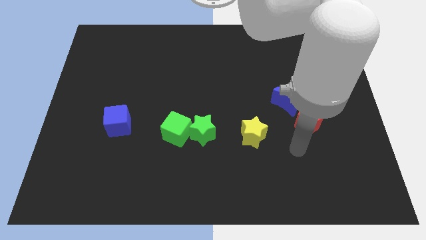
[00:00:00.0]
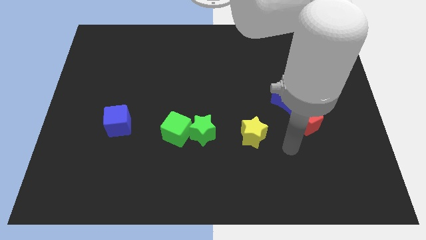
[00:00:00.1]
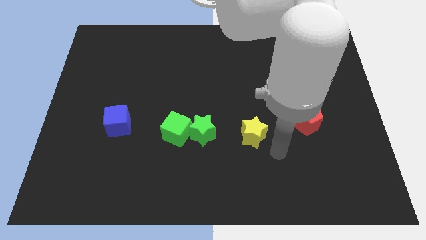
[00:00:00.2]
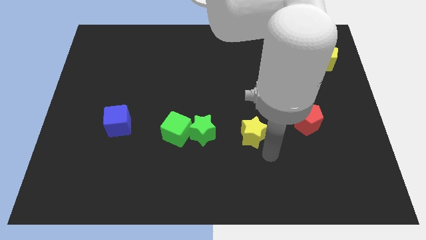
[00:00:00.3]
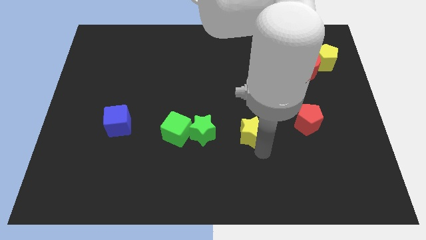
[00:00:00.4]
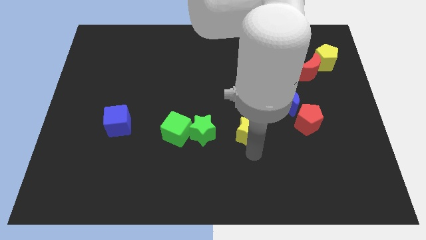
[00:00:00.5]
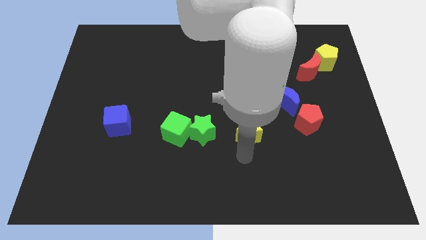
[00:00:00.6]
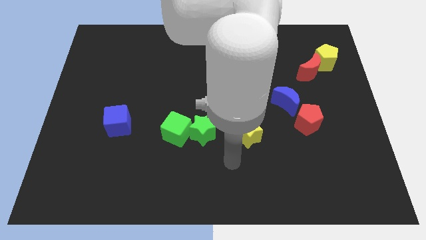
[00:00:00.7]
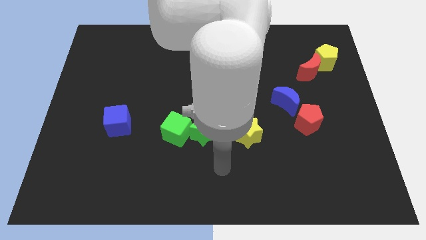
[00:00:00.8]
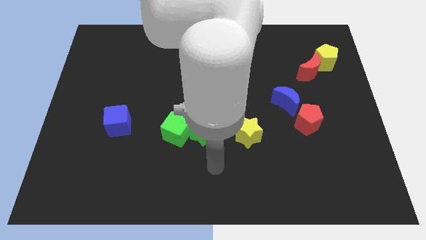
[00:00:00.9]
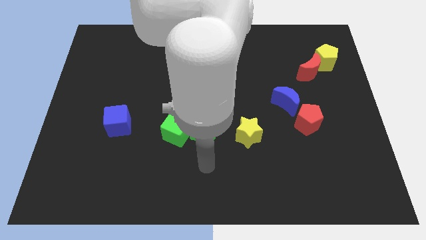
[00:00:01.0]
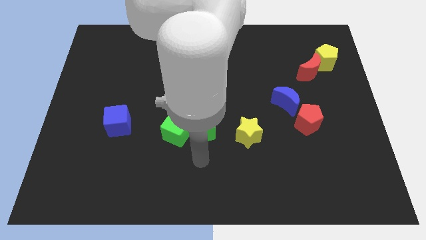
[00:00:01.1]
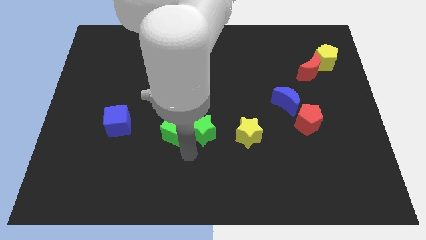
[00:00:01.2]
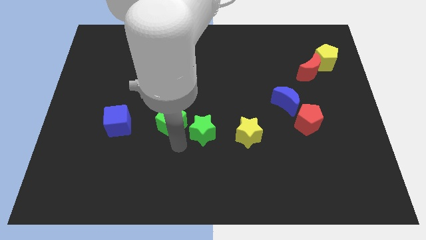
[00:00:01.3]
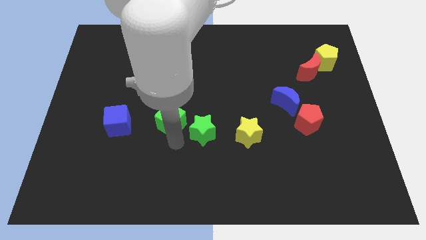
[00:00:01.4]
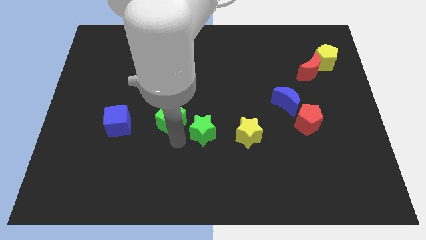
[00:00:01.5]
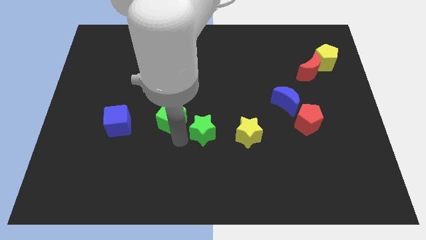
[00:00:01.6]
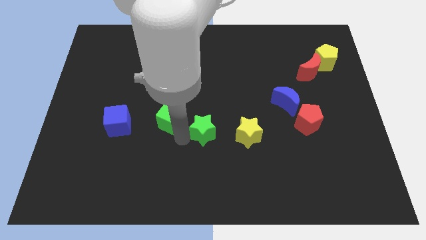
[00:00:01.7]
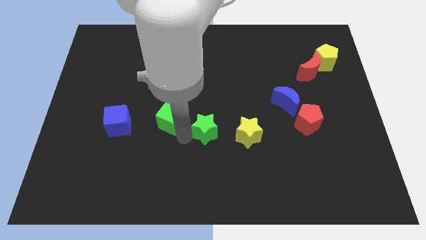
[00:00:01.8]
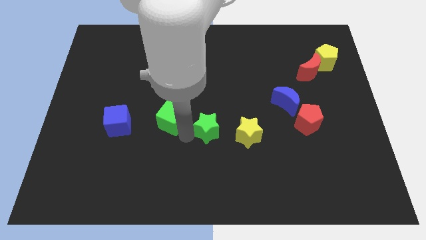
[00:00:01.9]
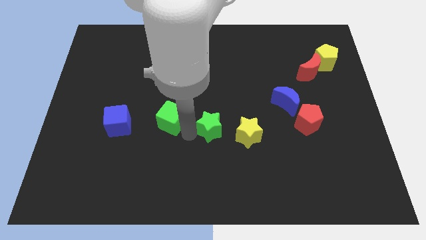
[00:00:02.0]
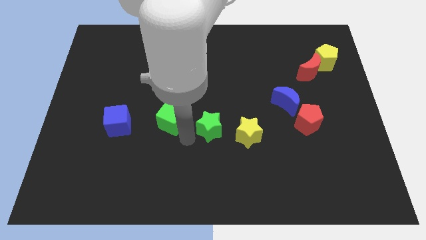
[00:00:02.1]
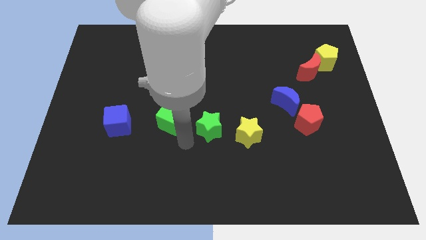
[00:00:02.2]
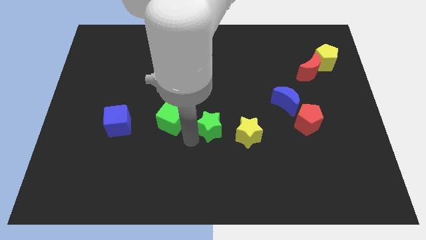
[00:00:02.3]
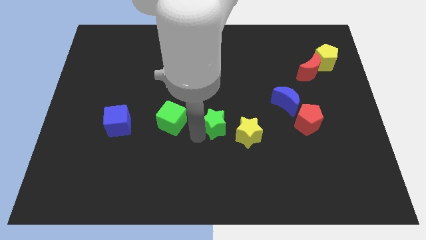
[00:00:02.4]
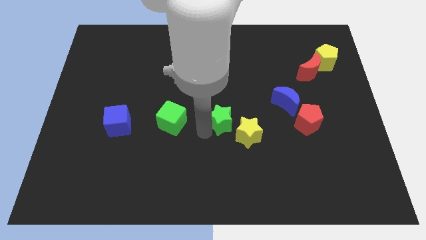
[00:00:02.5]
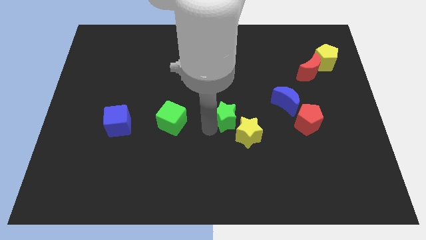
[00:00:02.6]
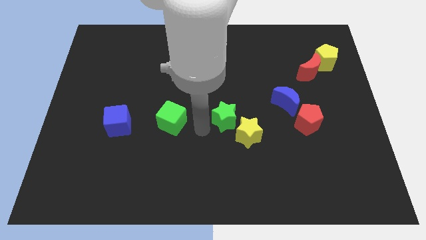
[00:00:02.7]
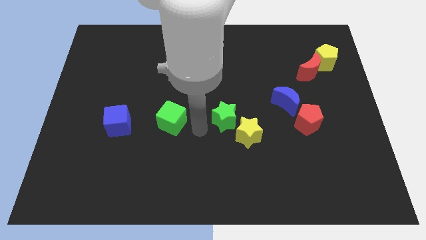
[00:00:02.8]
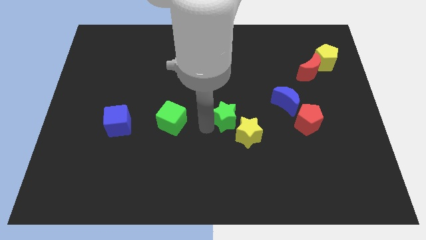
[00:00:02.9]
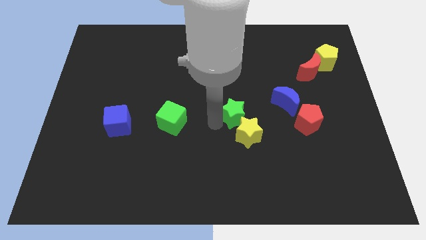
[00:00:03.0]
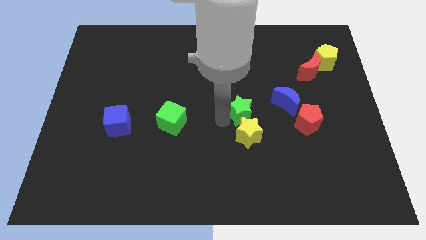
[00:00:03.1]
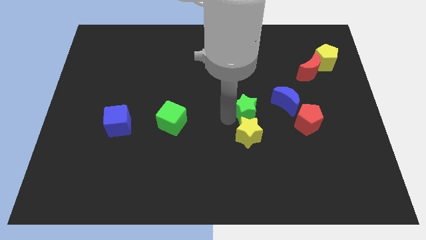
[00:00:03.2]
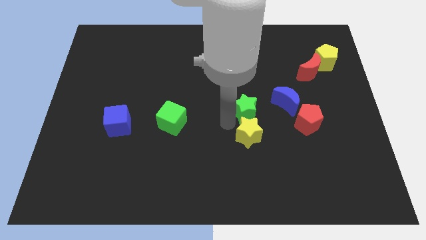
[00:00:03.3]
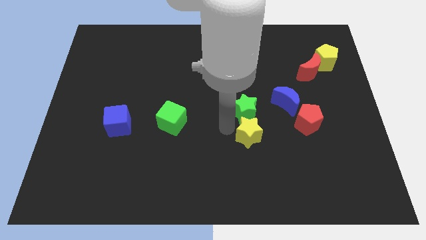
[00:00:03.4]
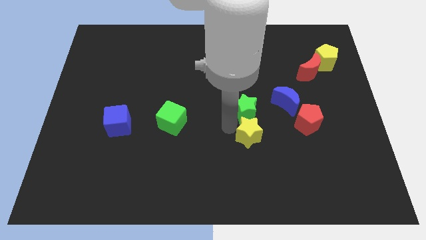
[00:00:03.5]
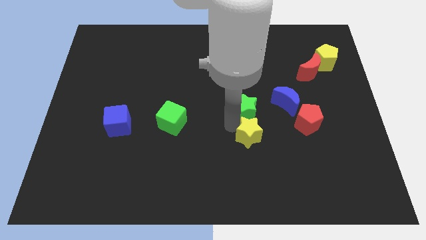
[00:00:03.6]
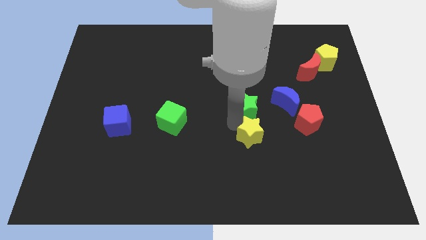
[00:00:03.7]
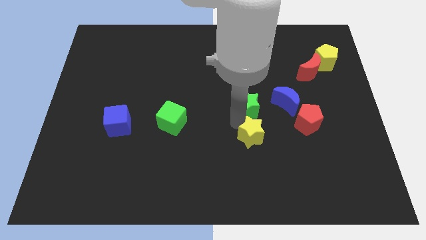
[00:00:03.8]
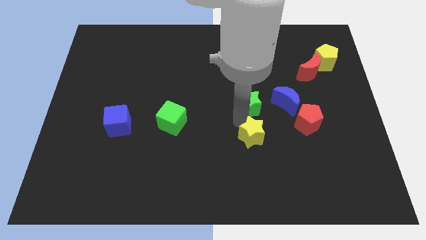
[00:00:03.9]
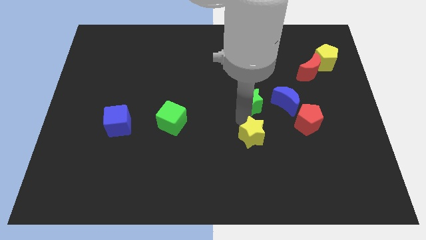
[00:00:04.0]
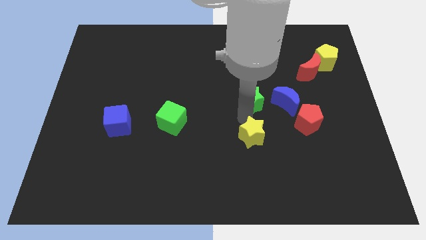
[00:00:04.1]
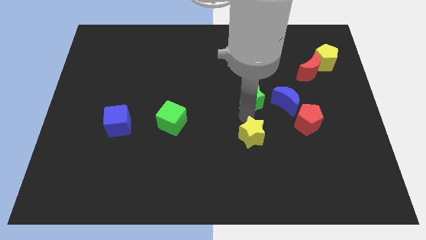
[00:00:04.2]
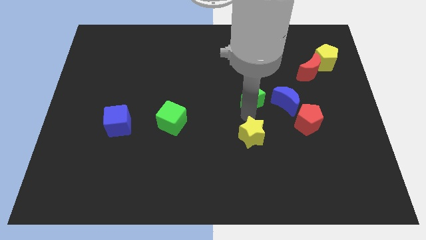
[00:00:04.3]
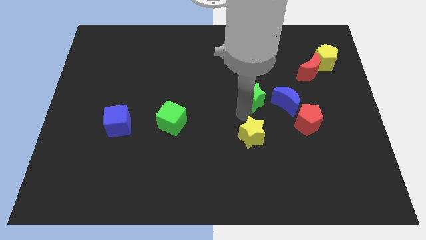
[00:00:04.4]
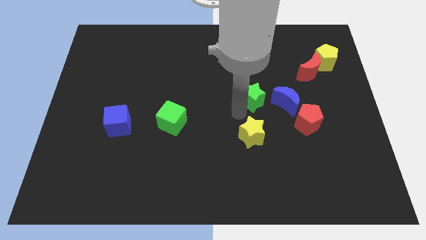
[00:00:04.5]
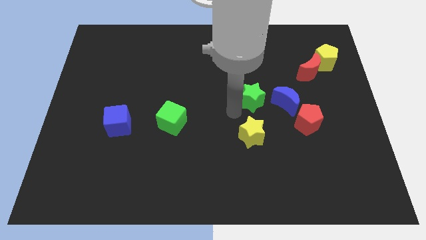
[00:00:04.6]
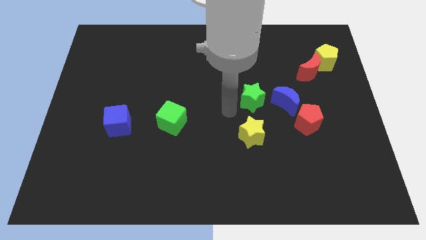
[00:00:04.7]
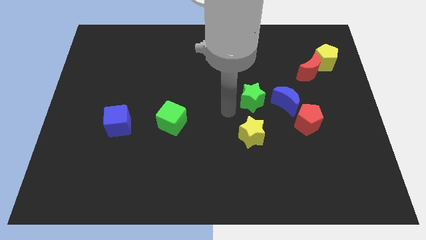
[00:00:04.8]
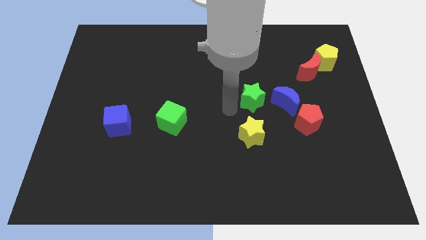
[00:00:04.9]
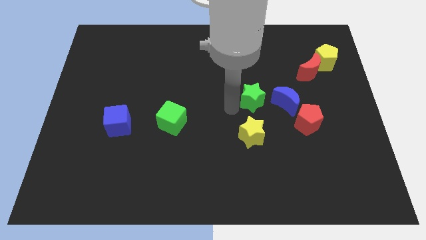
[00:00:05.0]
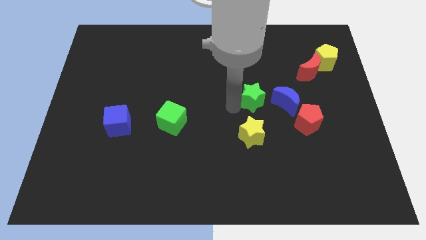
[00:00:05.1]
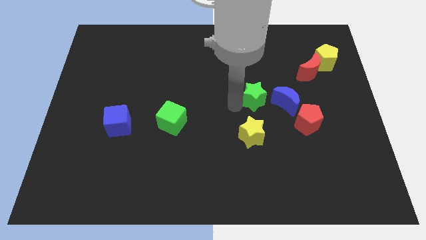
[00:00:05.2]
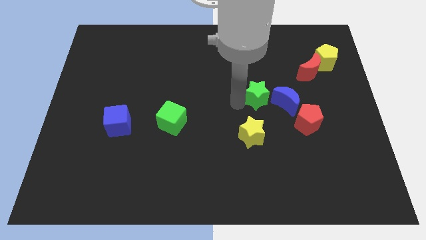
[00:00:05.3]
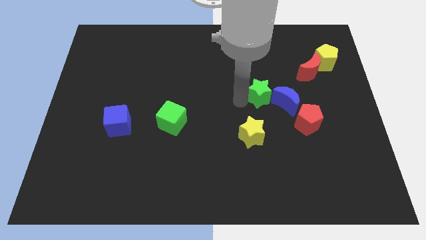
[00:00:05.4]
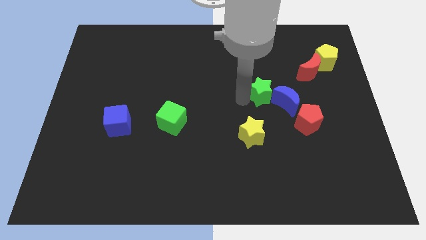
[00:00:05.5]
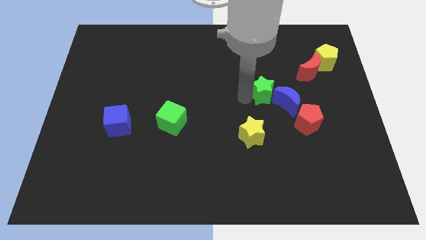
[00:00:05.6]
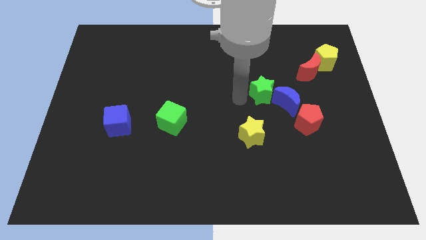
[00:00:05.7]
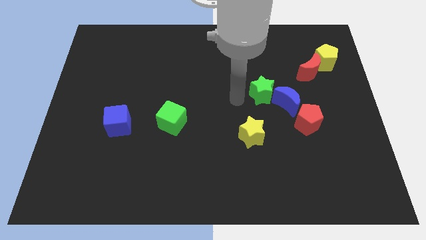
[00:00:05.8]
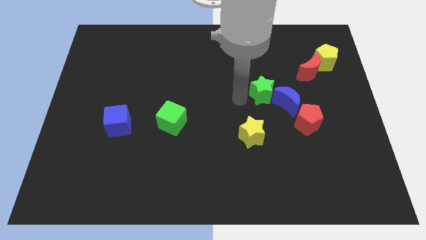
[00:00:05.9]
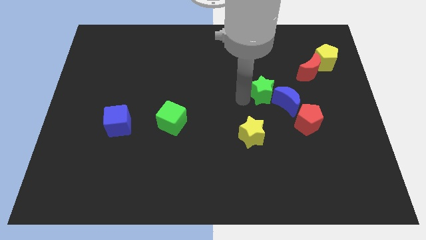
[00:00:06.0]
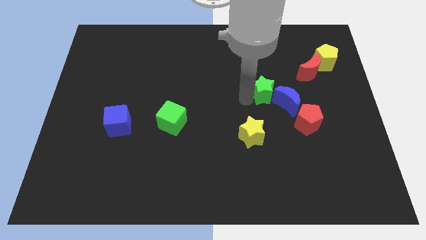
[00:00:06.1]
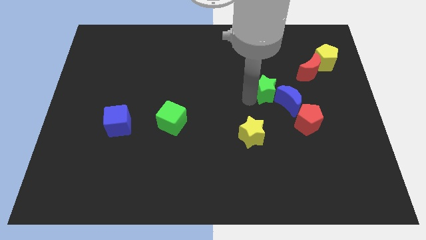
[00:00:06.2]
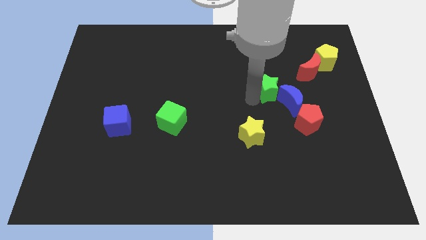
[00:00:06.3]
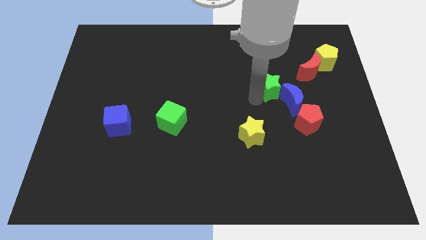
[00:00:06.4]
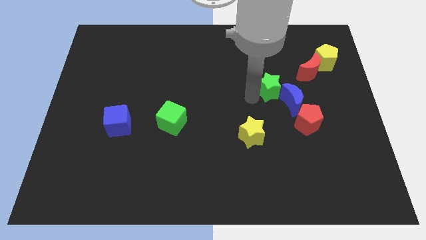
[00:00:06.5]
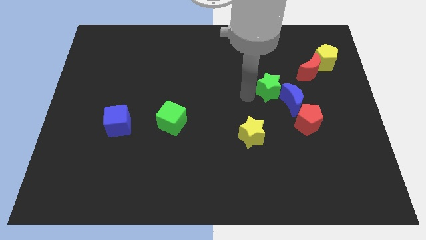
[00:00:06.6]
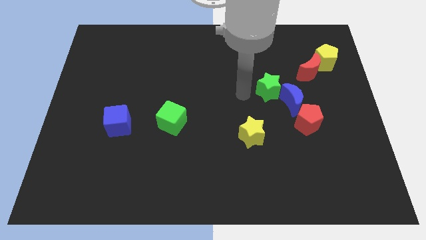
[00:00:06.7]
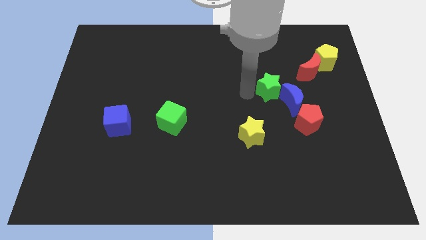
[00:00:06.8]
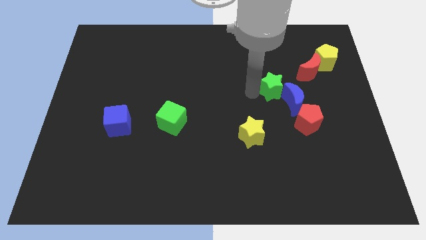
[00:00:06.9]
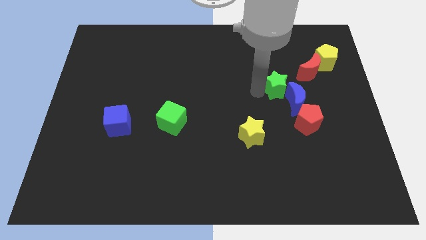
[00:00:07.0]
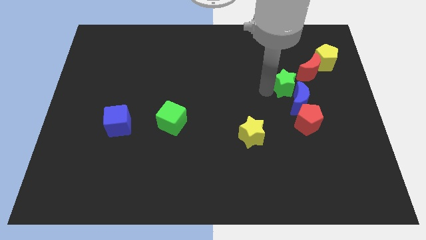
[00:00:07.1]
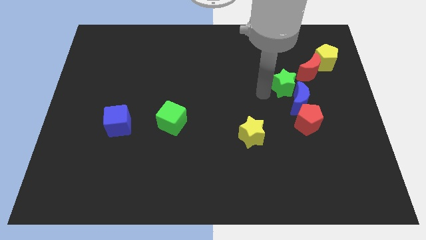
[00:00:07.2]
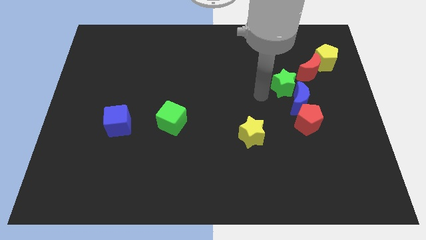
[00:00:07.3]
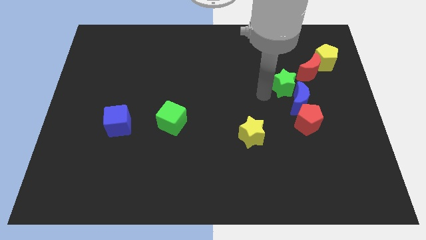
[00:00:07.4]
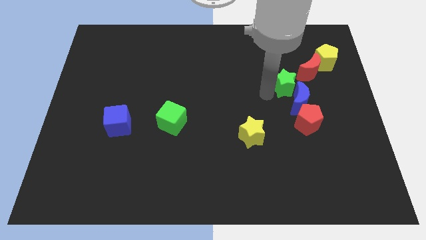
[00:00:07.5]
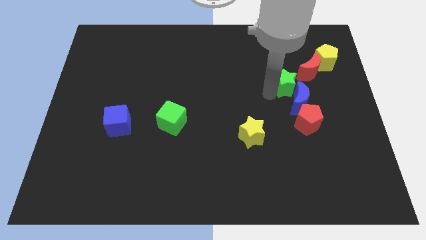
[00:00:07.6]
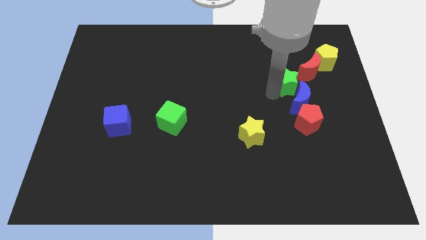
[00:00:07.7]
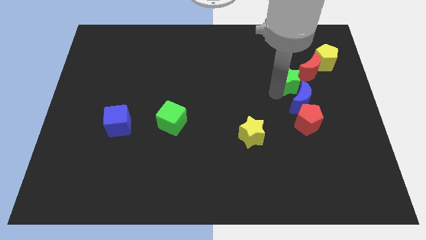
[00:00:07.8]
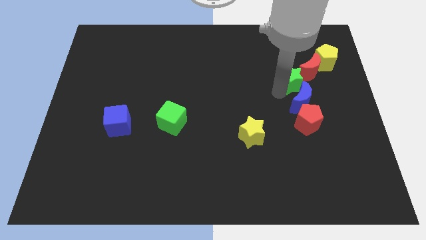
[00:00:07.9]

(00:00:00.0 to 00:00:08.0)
put the green star diagonally down and to the left of the yellow pentagon
